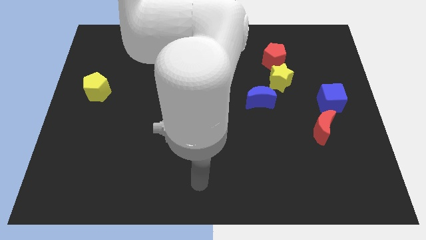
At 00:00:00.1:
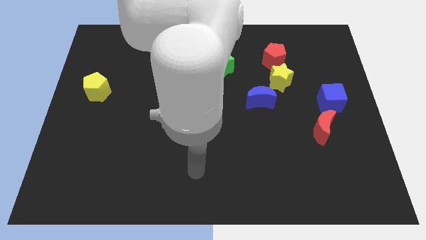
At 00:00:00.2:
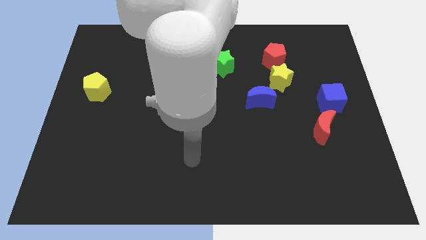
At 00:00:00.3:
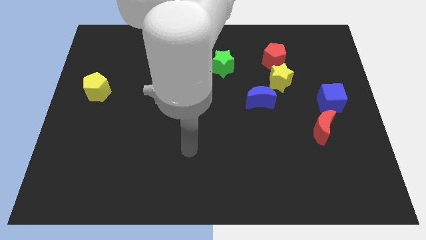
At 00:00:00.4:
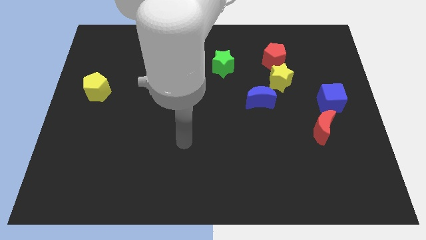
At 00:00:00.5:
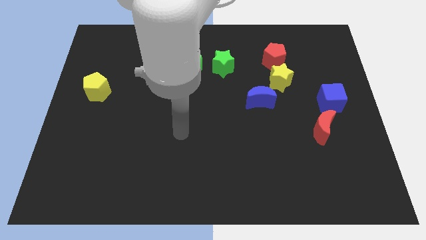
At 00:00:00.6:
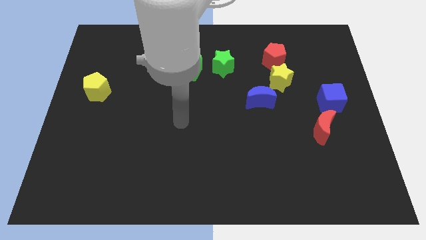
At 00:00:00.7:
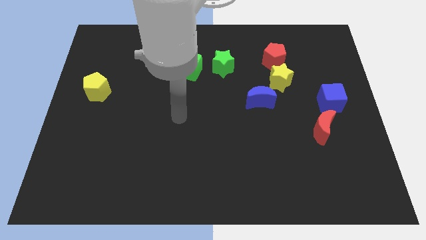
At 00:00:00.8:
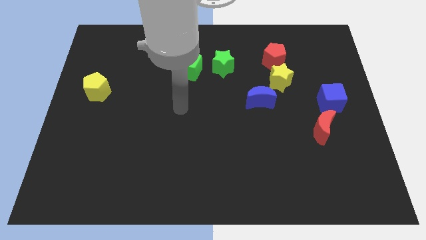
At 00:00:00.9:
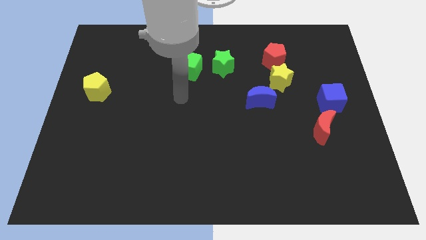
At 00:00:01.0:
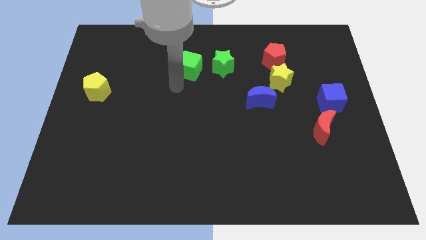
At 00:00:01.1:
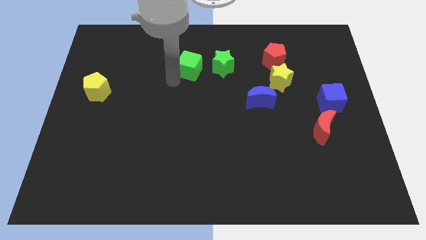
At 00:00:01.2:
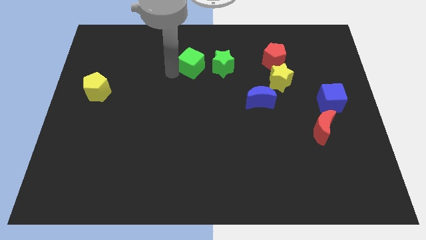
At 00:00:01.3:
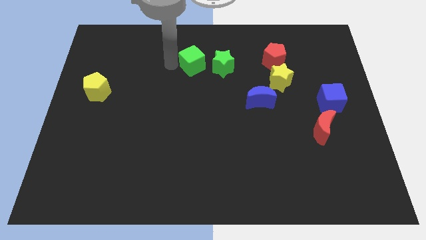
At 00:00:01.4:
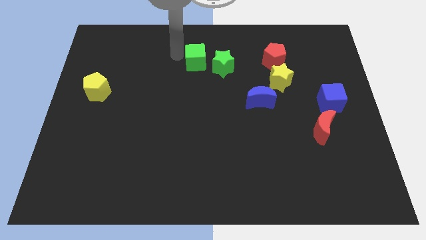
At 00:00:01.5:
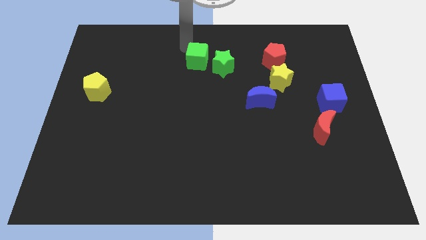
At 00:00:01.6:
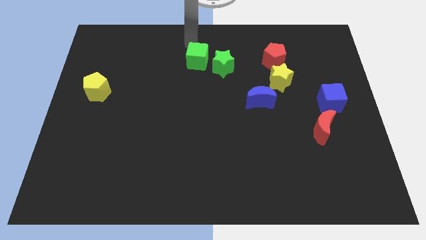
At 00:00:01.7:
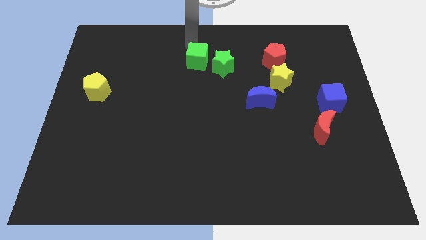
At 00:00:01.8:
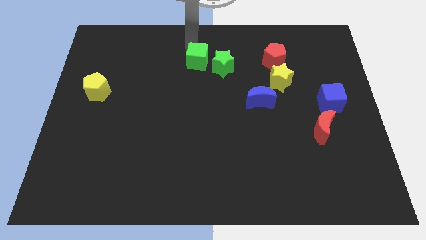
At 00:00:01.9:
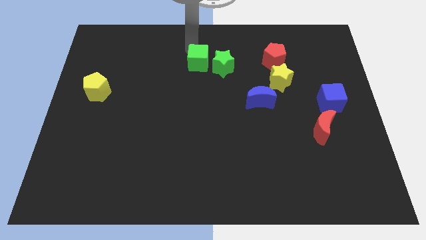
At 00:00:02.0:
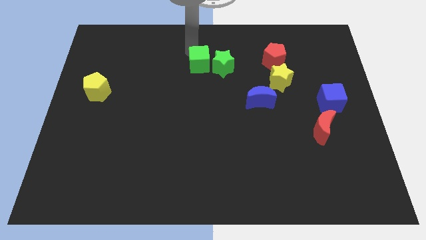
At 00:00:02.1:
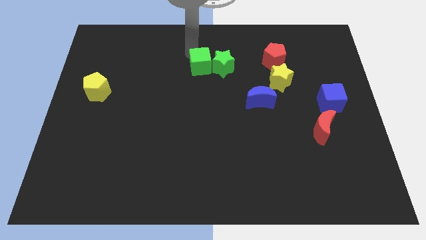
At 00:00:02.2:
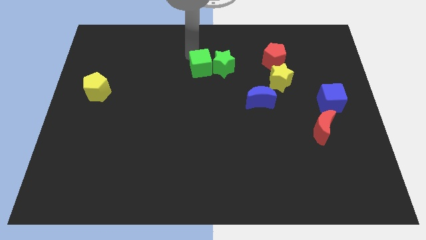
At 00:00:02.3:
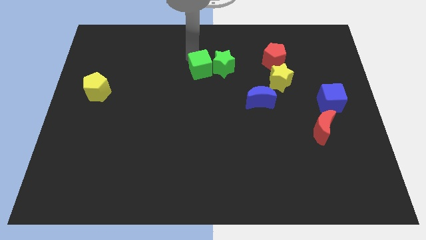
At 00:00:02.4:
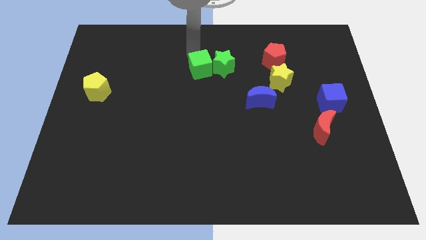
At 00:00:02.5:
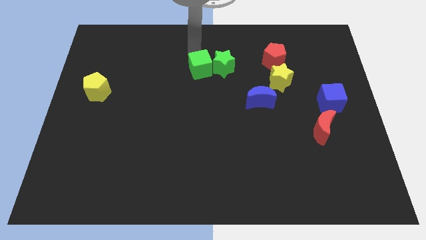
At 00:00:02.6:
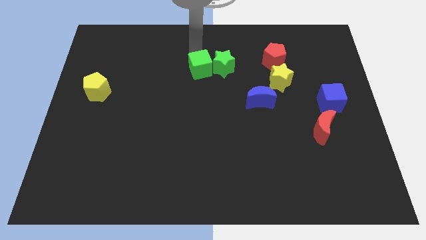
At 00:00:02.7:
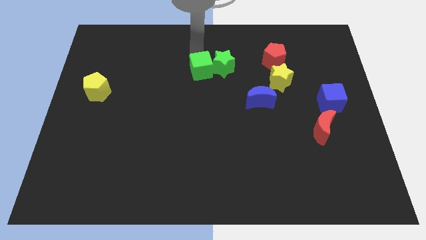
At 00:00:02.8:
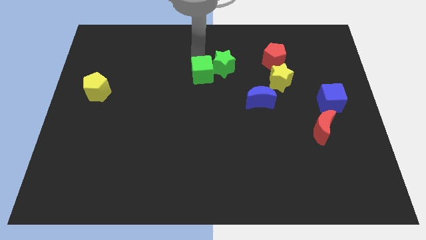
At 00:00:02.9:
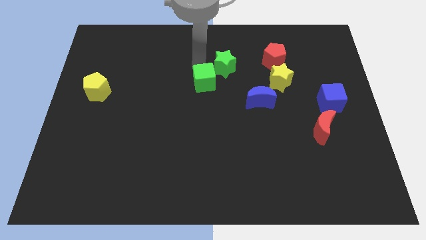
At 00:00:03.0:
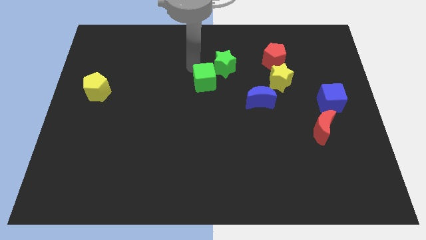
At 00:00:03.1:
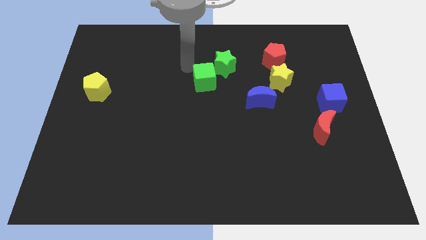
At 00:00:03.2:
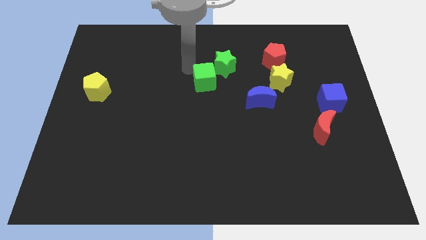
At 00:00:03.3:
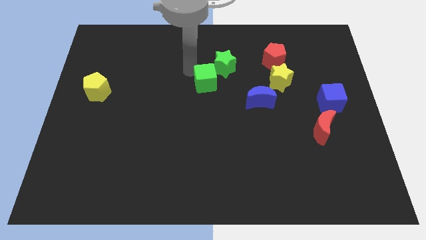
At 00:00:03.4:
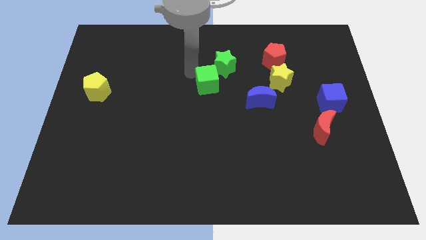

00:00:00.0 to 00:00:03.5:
slide the green cube diagonally downwards and to the right a little bit

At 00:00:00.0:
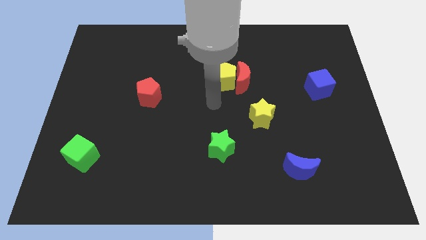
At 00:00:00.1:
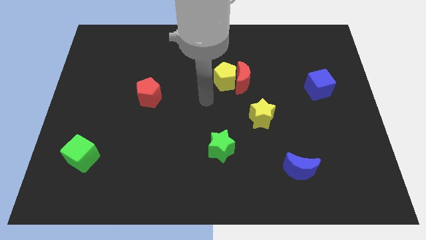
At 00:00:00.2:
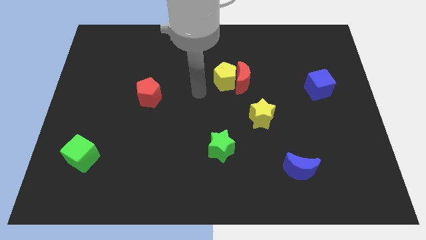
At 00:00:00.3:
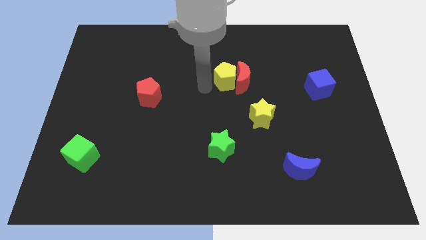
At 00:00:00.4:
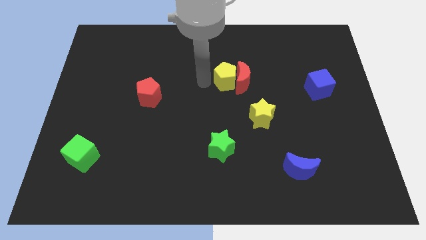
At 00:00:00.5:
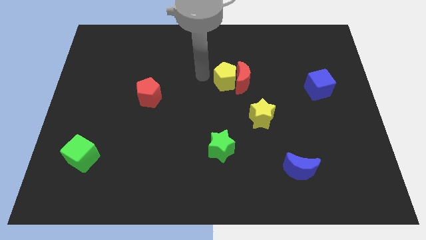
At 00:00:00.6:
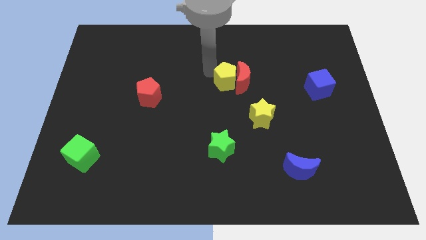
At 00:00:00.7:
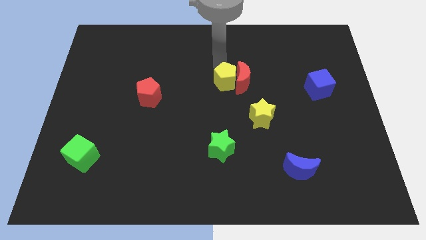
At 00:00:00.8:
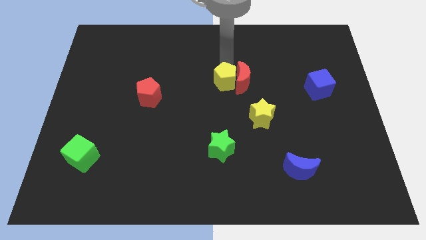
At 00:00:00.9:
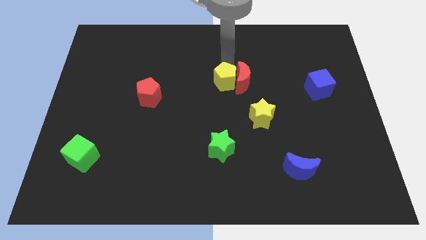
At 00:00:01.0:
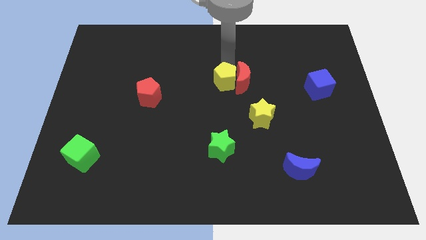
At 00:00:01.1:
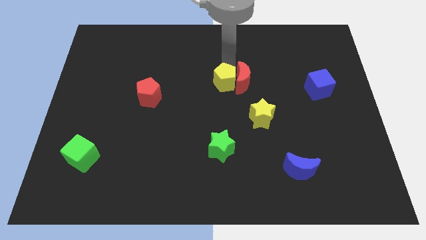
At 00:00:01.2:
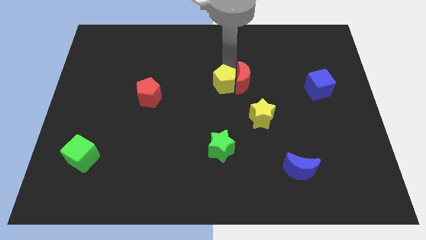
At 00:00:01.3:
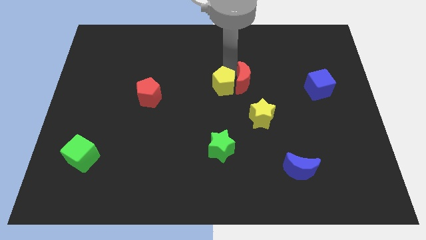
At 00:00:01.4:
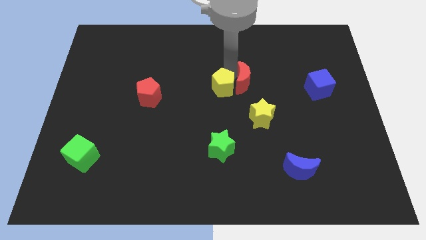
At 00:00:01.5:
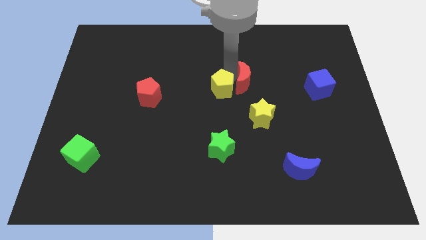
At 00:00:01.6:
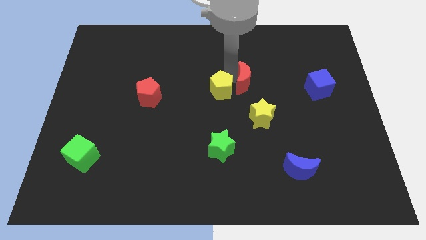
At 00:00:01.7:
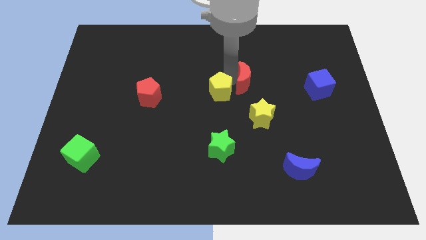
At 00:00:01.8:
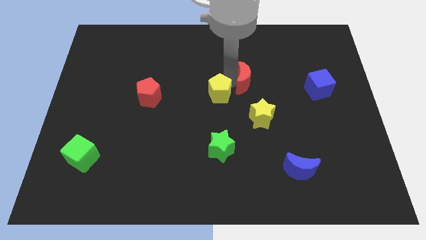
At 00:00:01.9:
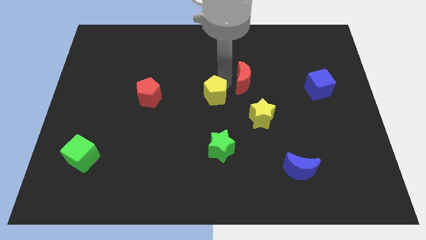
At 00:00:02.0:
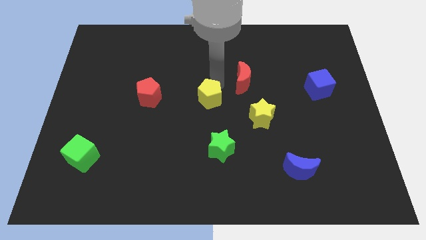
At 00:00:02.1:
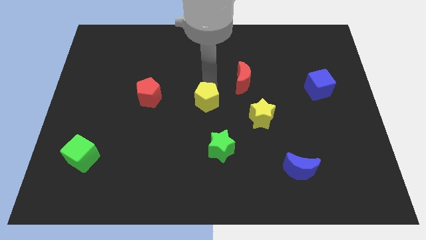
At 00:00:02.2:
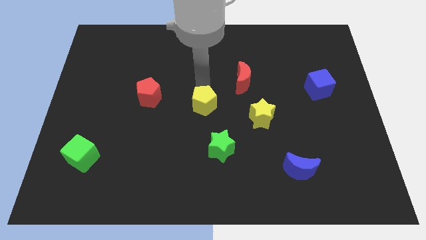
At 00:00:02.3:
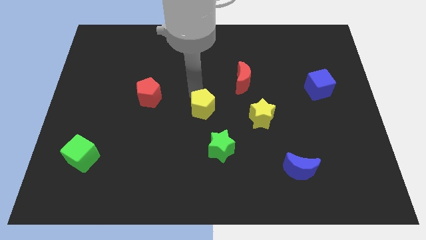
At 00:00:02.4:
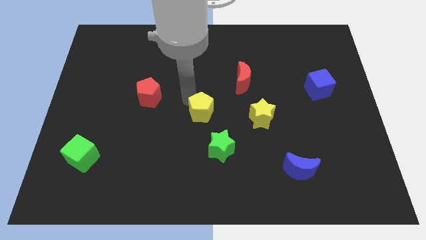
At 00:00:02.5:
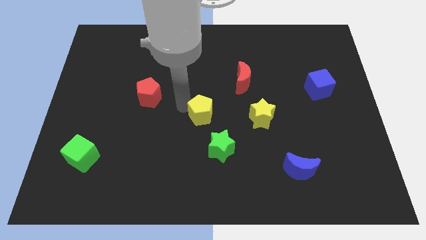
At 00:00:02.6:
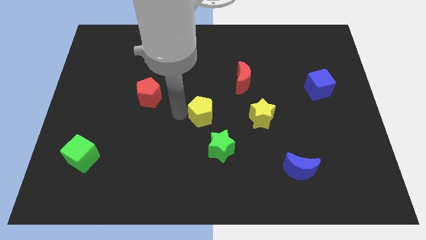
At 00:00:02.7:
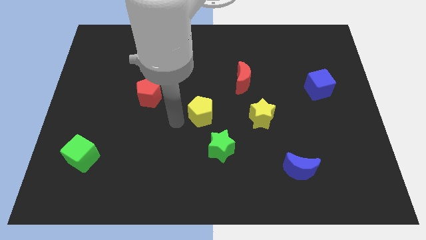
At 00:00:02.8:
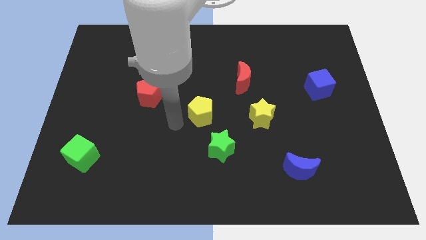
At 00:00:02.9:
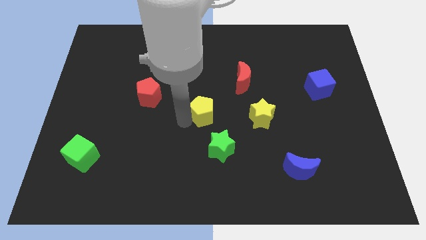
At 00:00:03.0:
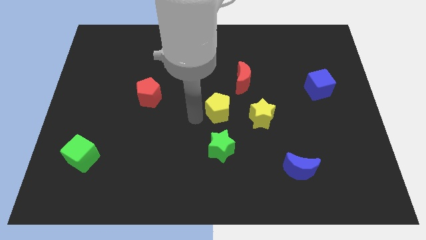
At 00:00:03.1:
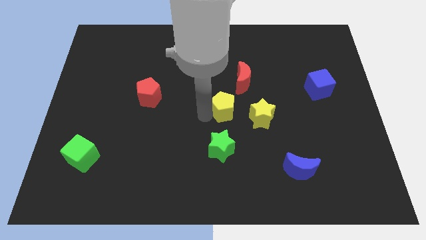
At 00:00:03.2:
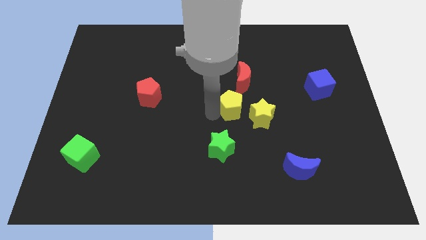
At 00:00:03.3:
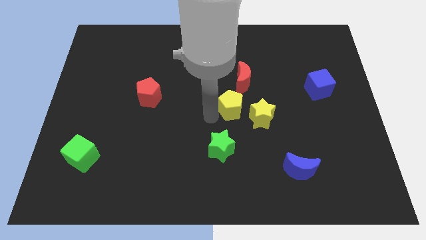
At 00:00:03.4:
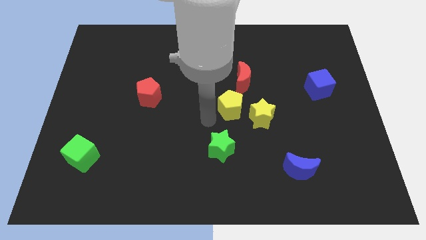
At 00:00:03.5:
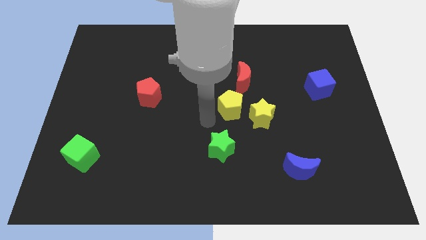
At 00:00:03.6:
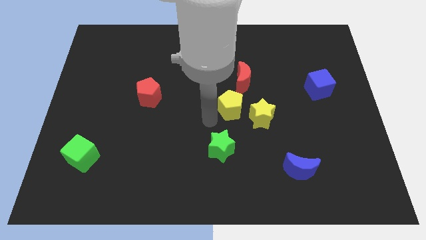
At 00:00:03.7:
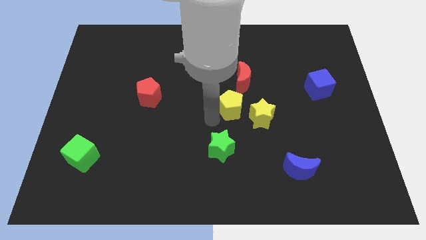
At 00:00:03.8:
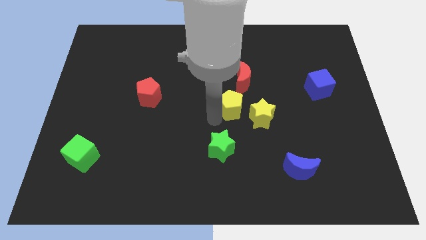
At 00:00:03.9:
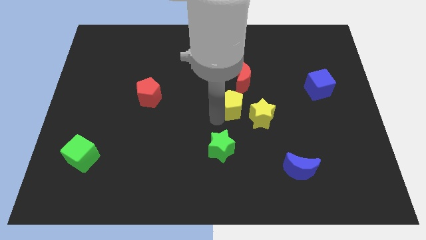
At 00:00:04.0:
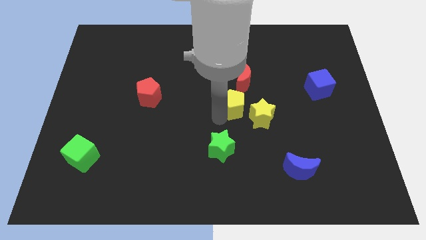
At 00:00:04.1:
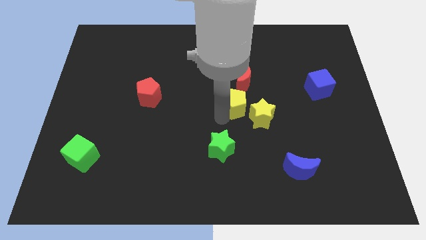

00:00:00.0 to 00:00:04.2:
push the yellow pentagon down and then right a little
